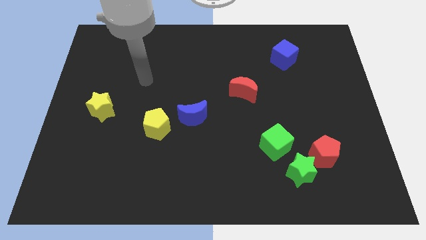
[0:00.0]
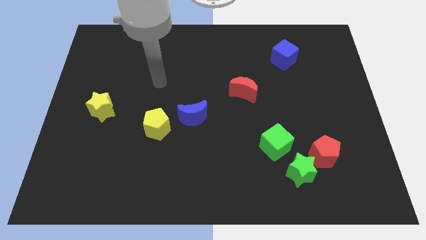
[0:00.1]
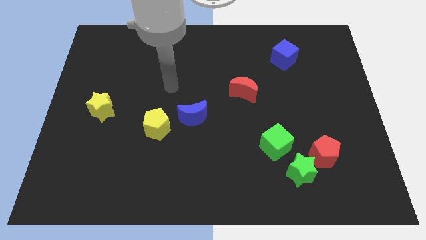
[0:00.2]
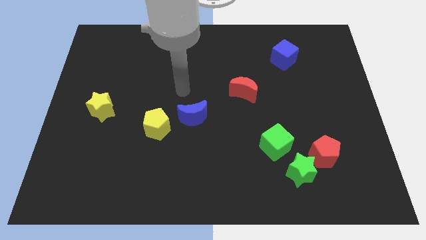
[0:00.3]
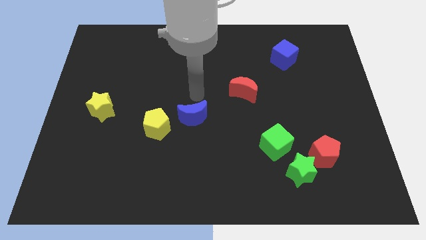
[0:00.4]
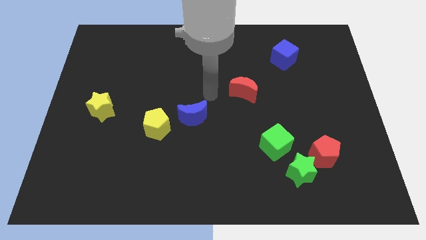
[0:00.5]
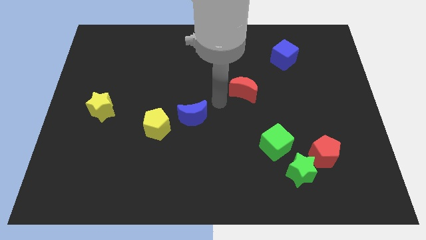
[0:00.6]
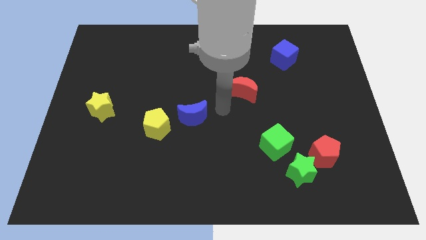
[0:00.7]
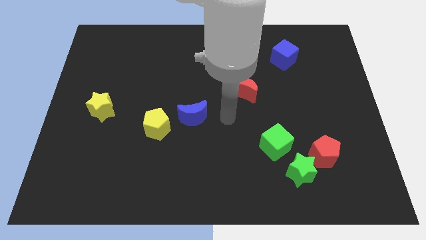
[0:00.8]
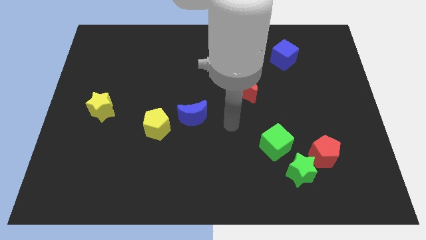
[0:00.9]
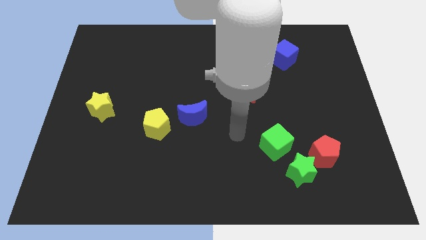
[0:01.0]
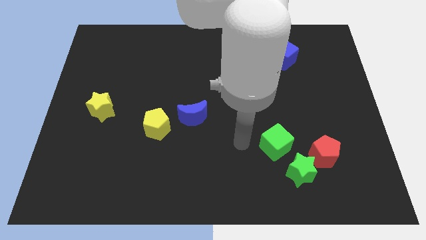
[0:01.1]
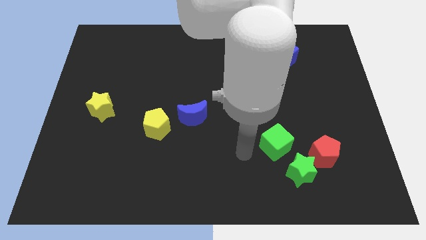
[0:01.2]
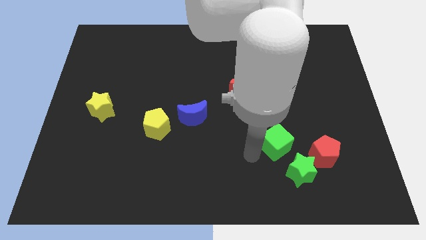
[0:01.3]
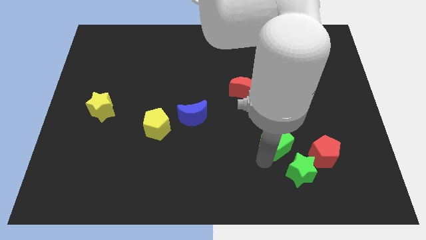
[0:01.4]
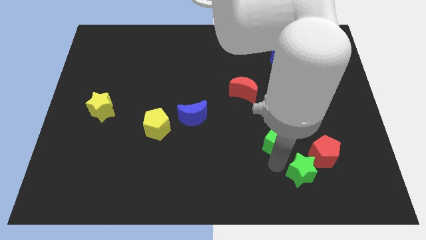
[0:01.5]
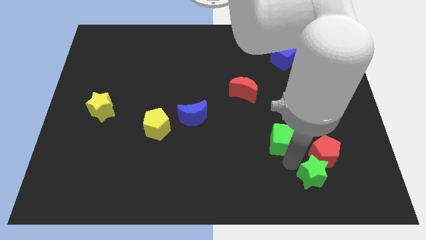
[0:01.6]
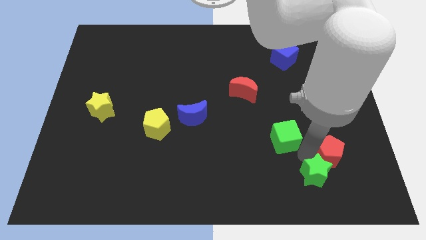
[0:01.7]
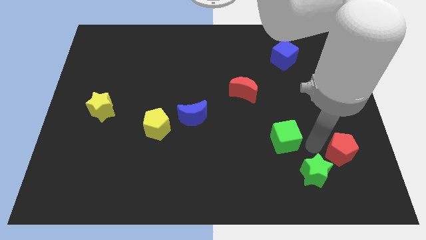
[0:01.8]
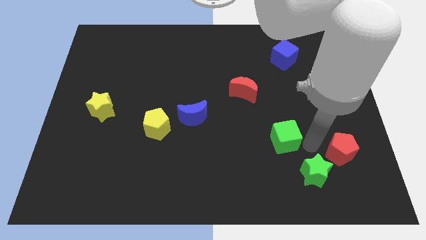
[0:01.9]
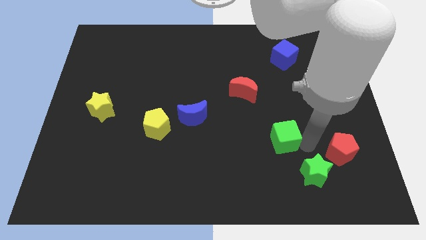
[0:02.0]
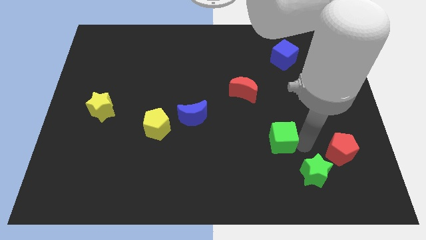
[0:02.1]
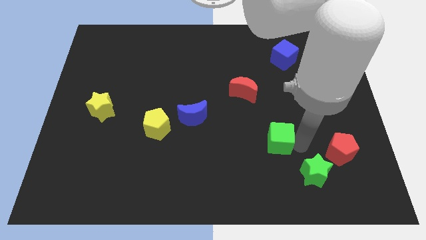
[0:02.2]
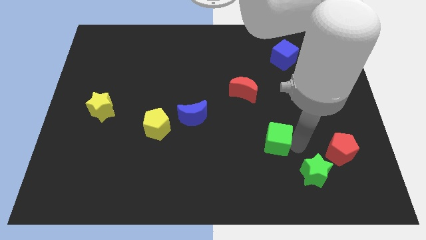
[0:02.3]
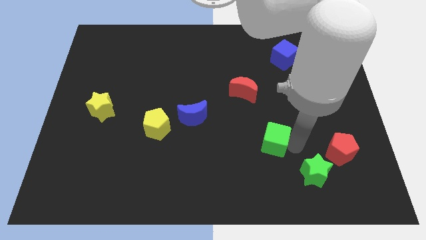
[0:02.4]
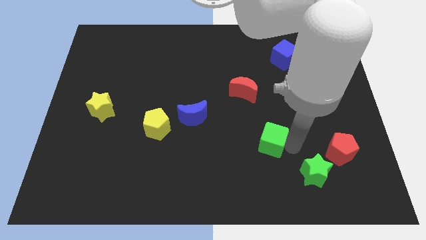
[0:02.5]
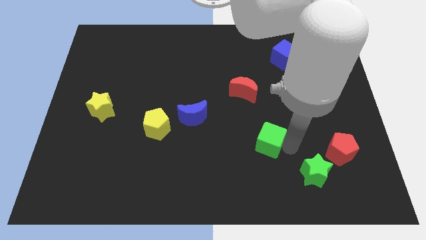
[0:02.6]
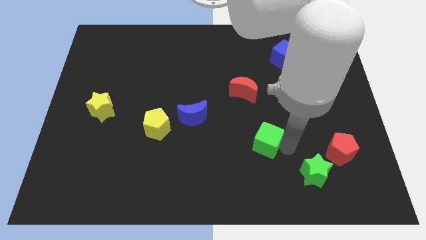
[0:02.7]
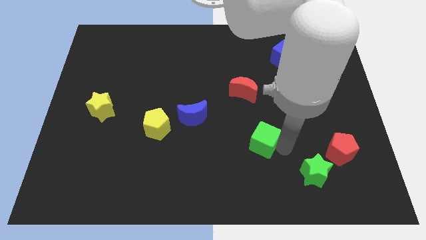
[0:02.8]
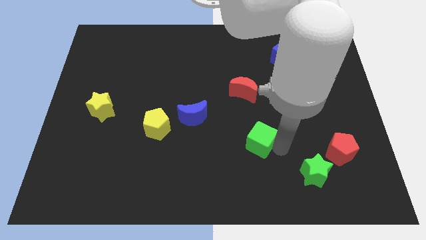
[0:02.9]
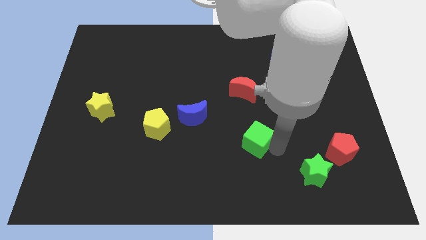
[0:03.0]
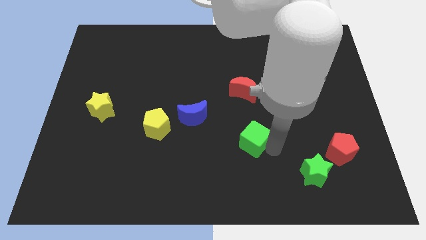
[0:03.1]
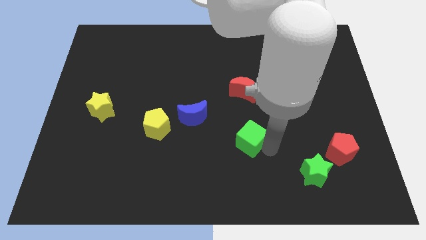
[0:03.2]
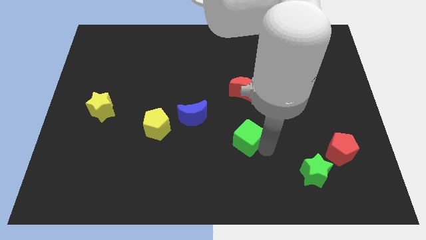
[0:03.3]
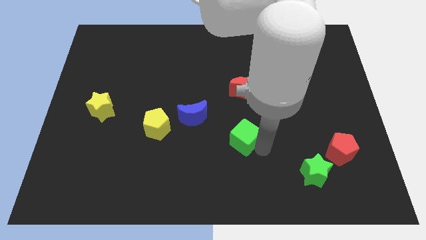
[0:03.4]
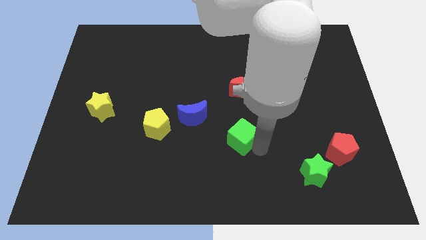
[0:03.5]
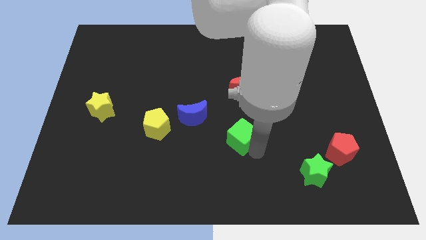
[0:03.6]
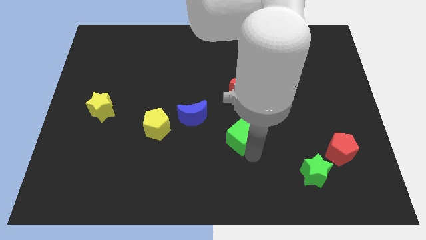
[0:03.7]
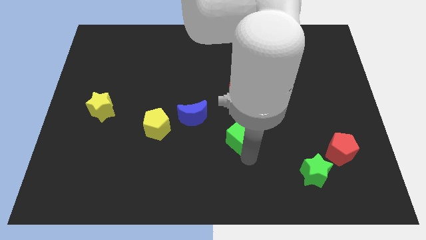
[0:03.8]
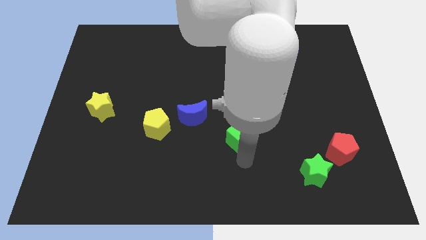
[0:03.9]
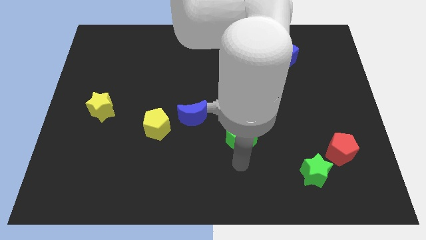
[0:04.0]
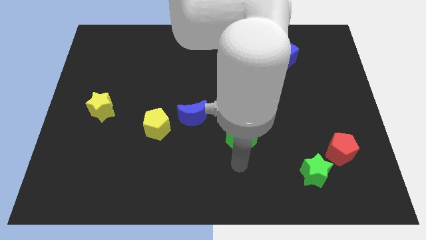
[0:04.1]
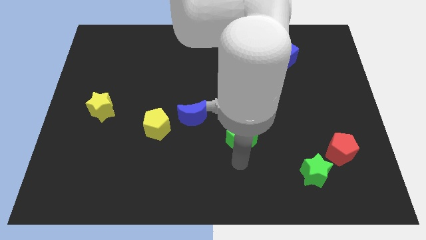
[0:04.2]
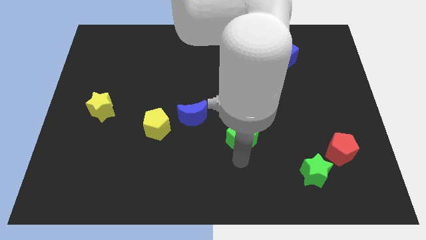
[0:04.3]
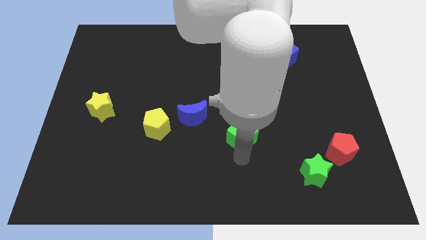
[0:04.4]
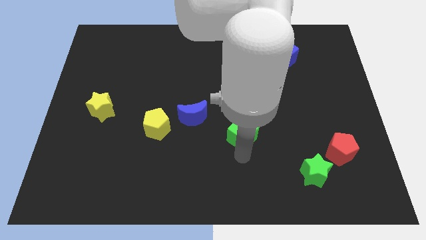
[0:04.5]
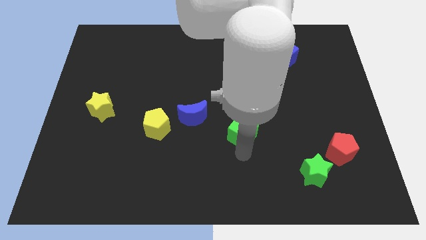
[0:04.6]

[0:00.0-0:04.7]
slide the green cube diagonally up and to the left a bit

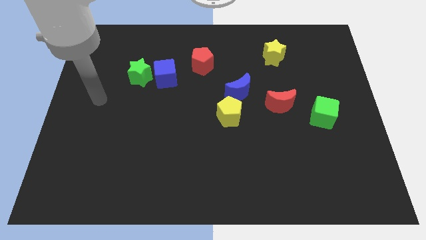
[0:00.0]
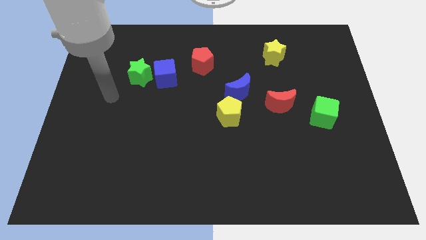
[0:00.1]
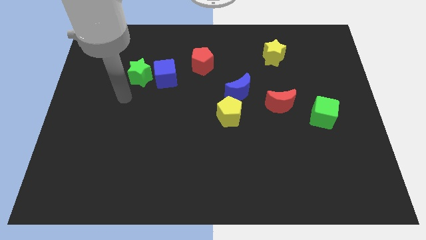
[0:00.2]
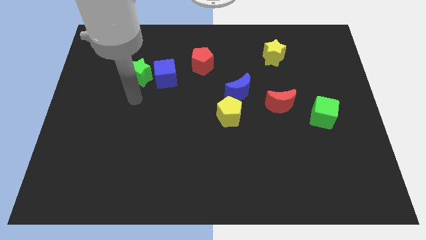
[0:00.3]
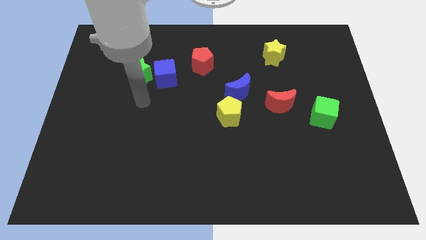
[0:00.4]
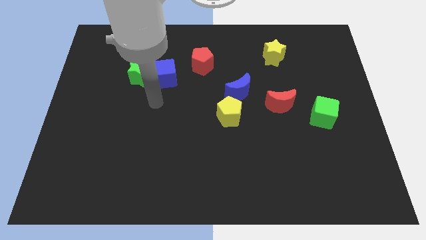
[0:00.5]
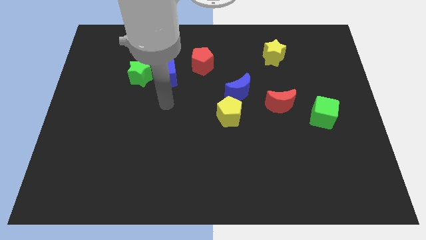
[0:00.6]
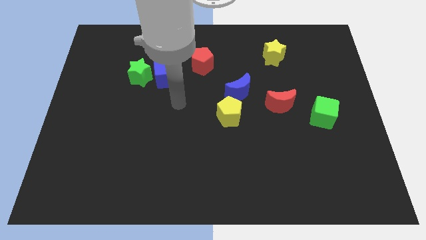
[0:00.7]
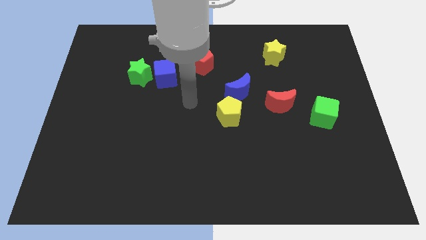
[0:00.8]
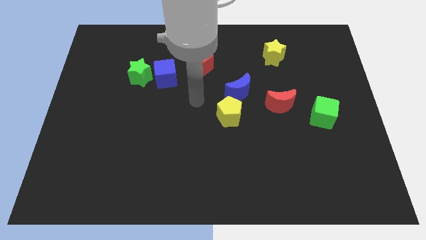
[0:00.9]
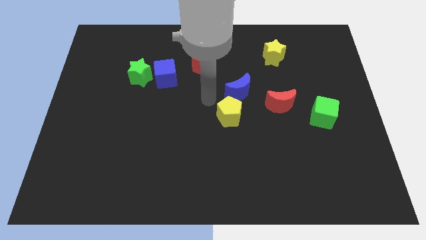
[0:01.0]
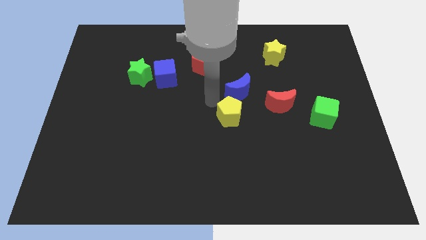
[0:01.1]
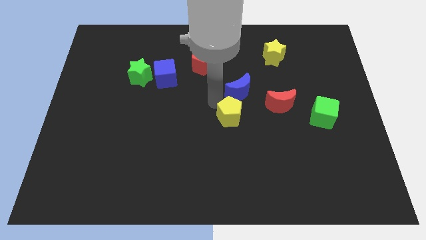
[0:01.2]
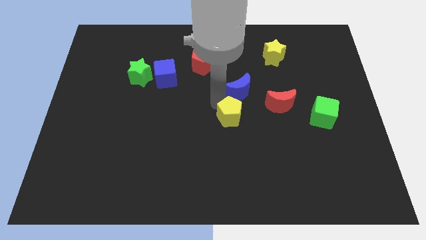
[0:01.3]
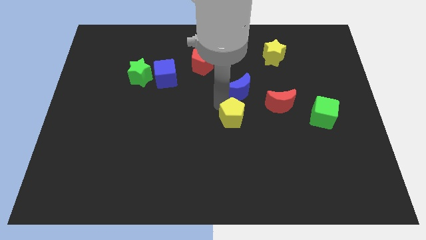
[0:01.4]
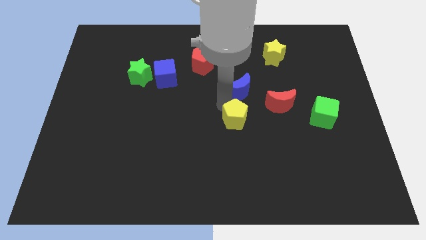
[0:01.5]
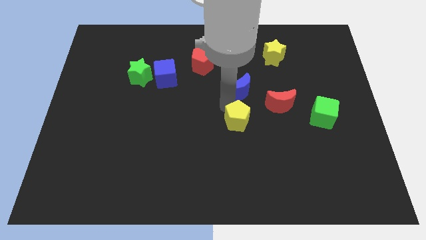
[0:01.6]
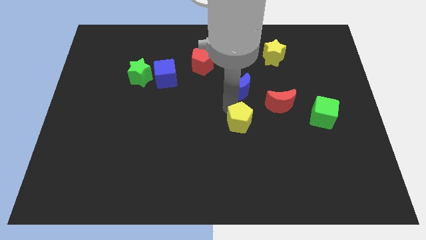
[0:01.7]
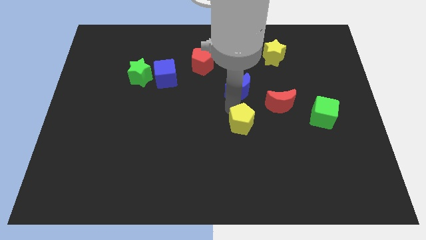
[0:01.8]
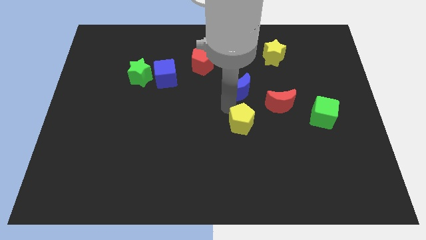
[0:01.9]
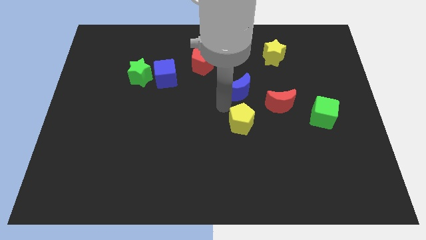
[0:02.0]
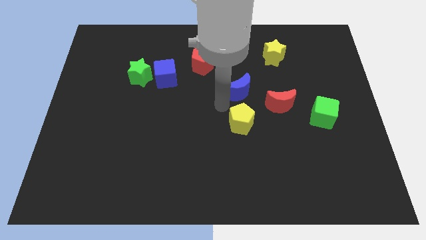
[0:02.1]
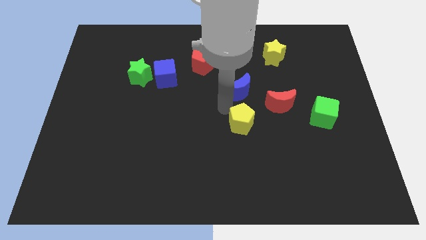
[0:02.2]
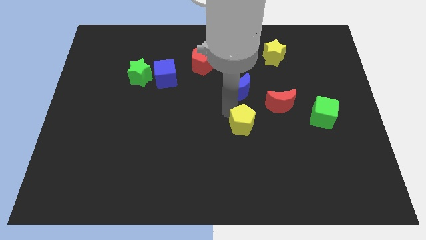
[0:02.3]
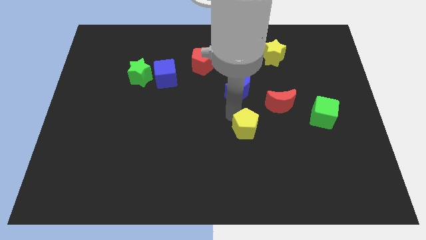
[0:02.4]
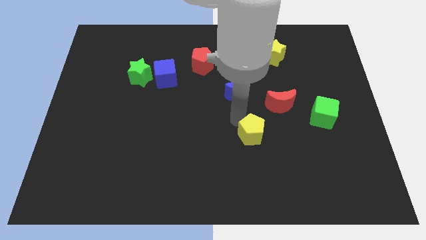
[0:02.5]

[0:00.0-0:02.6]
push the yellow pentagon a bit diagonally downwards and to the right

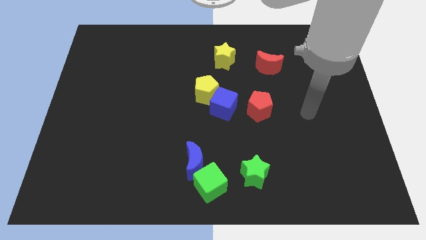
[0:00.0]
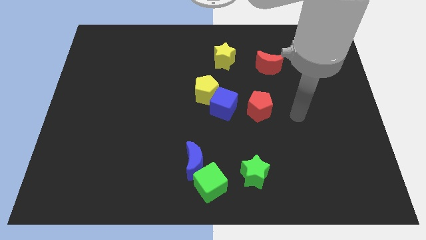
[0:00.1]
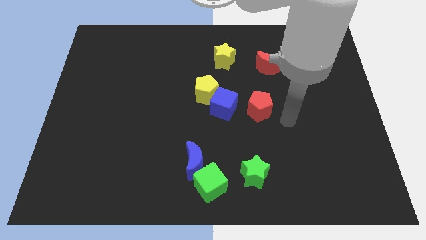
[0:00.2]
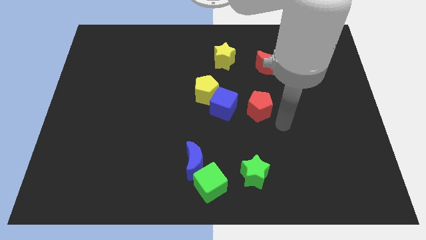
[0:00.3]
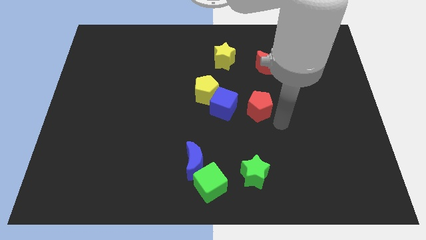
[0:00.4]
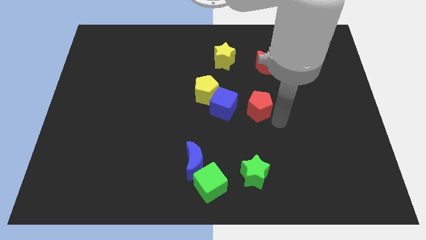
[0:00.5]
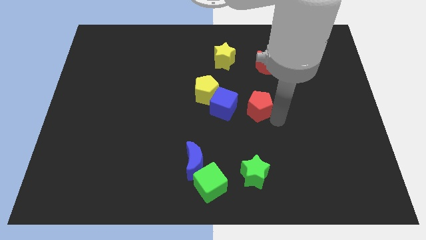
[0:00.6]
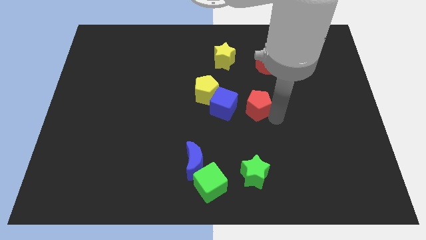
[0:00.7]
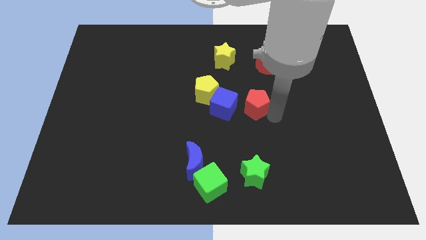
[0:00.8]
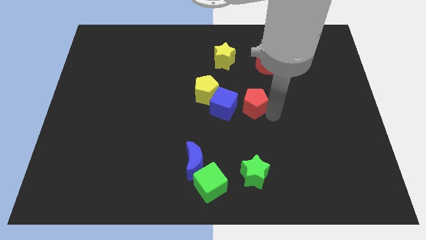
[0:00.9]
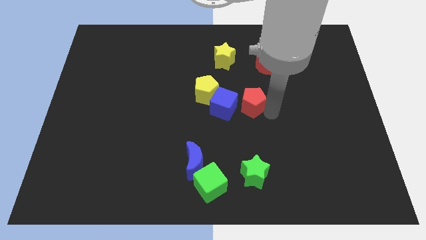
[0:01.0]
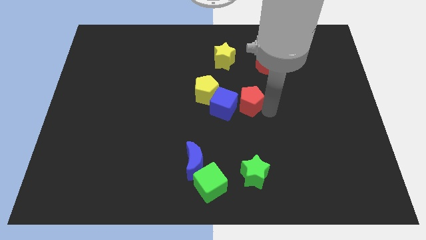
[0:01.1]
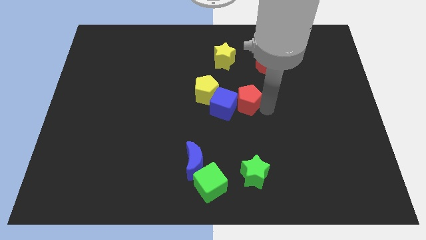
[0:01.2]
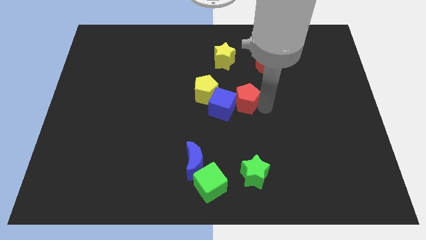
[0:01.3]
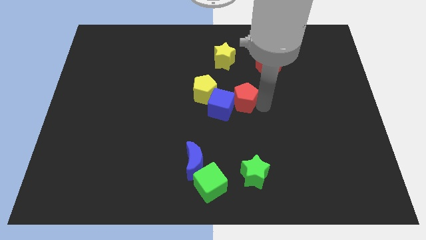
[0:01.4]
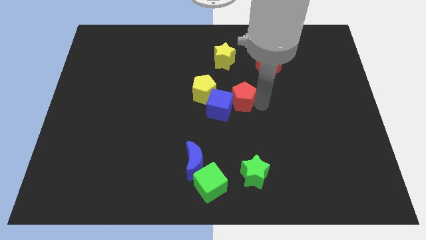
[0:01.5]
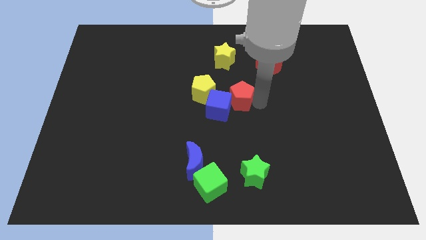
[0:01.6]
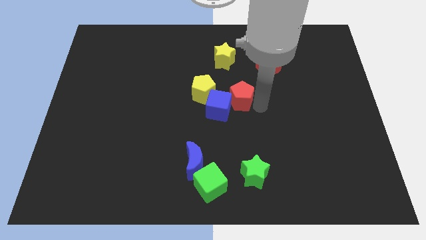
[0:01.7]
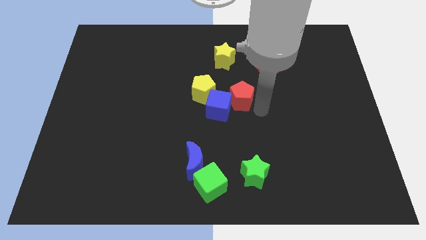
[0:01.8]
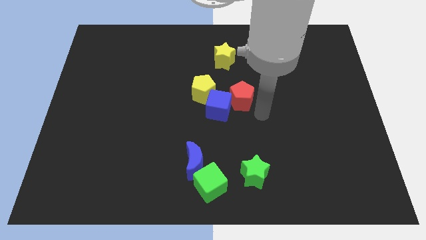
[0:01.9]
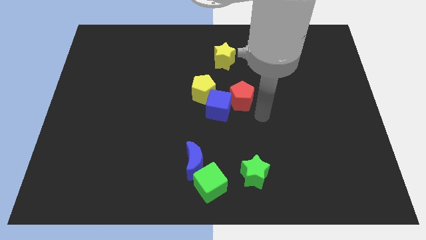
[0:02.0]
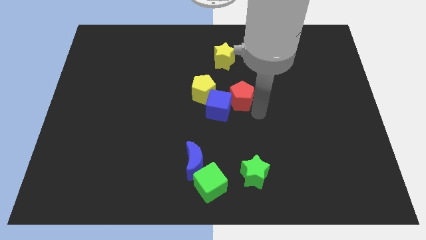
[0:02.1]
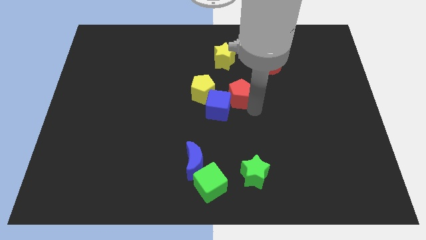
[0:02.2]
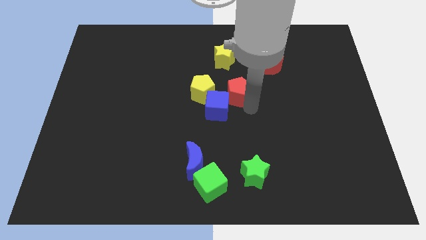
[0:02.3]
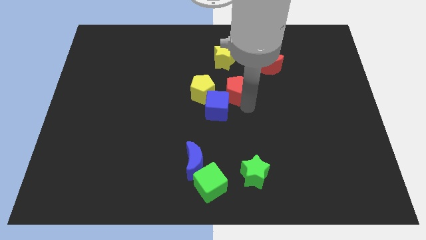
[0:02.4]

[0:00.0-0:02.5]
push the red pentagon diagonally up and to the left a little bit
